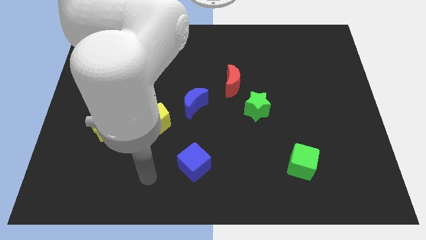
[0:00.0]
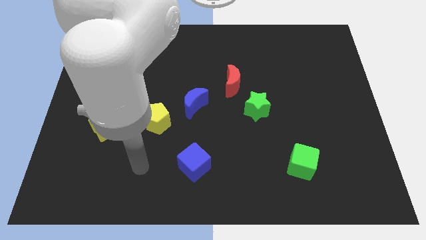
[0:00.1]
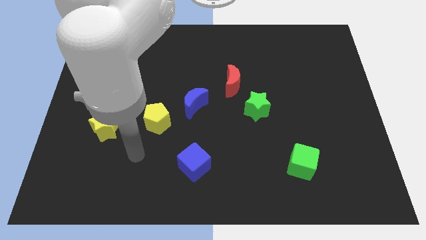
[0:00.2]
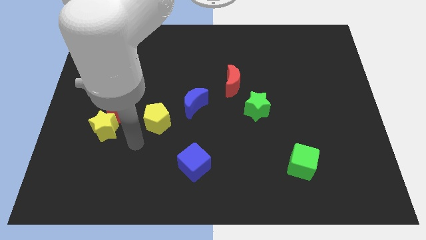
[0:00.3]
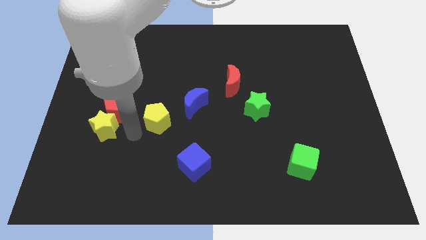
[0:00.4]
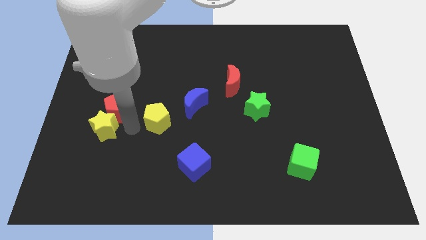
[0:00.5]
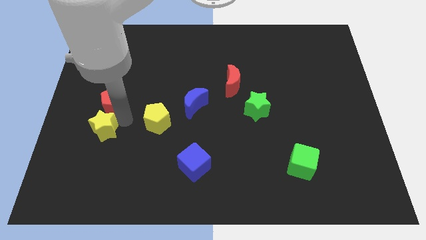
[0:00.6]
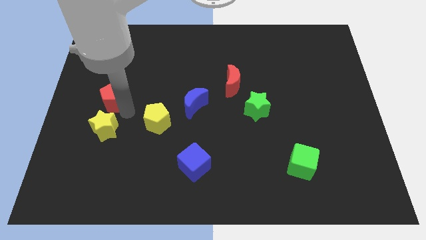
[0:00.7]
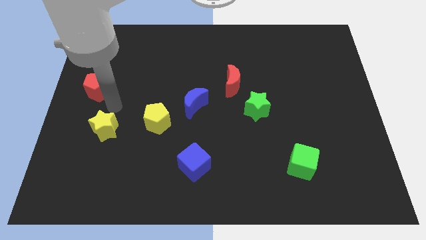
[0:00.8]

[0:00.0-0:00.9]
separate the yellow star from the red pentagon

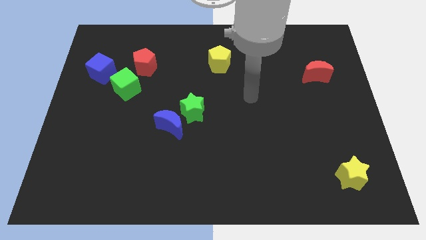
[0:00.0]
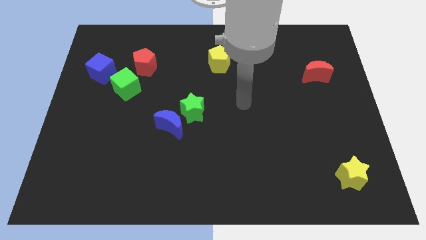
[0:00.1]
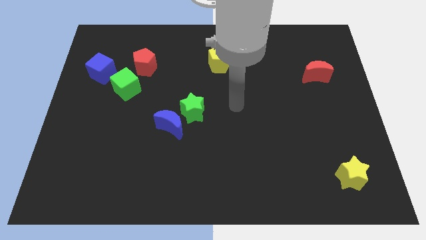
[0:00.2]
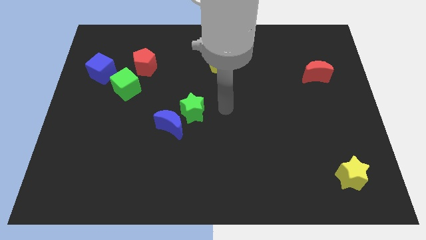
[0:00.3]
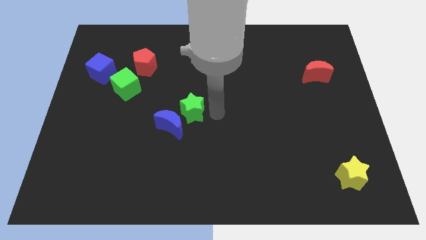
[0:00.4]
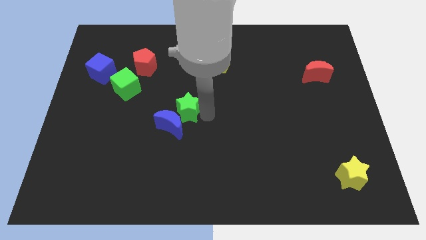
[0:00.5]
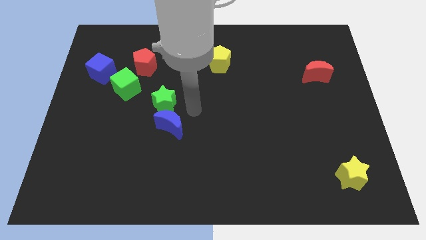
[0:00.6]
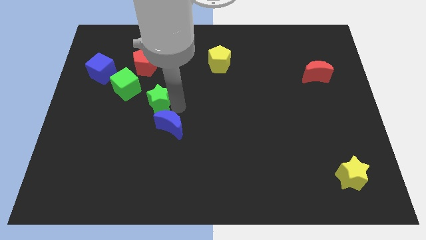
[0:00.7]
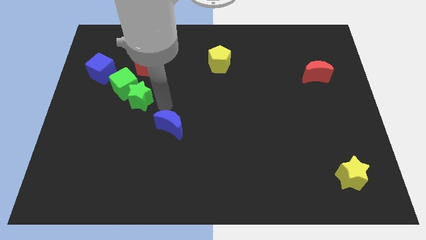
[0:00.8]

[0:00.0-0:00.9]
pull the blue moon apart from the green star

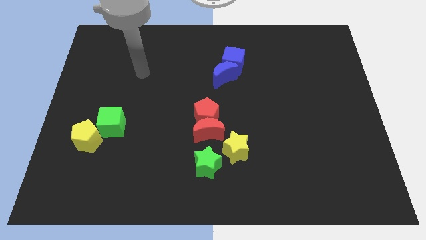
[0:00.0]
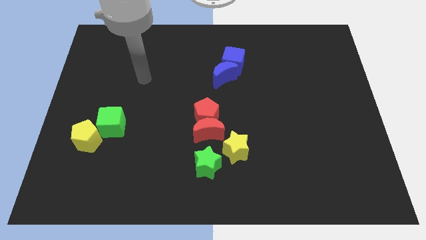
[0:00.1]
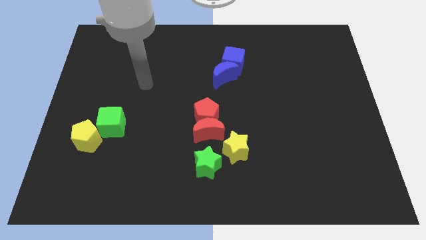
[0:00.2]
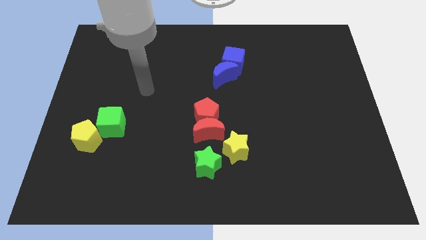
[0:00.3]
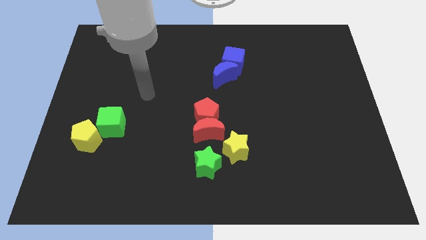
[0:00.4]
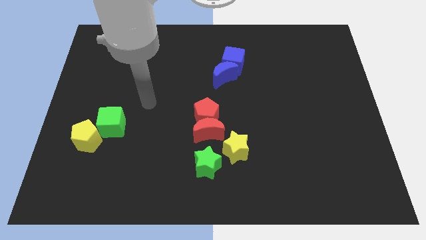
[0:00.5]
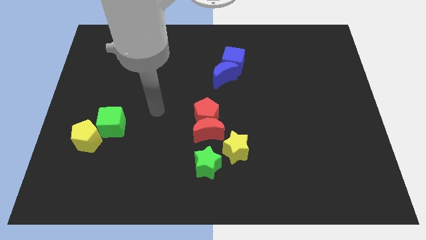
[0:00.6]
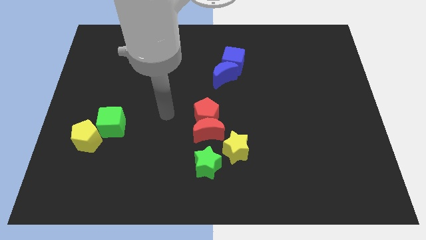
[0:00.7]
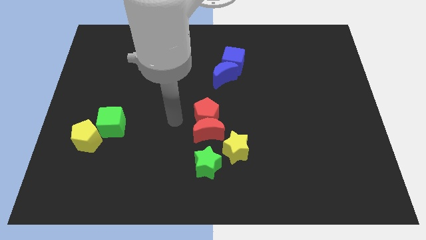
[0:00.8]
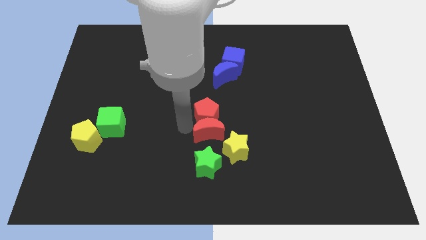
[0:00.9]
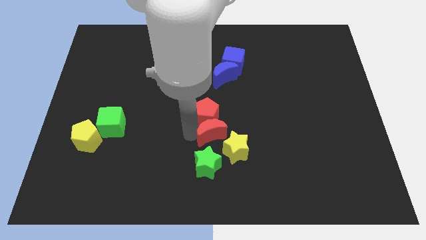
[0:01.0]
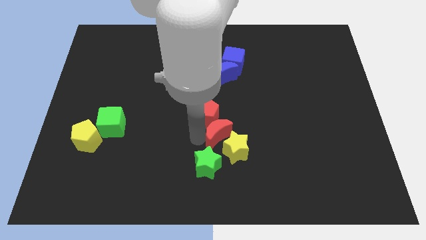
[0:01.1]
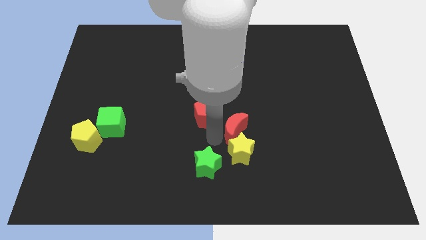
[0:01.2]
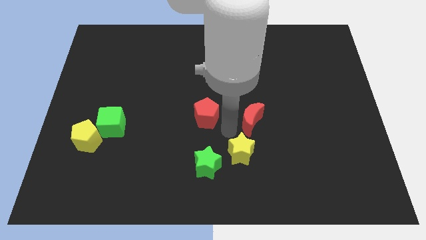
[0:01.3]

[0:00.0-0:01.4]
pull the red pentagon apart from the red moon

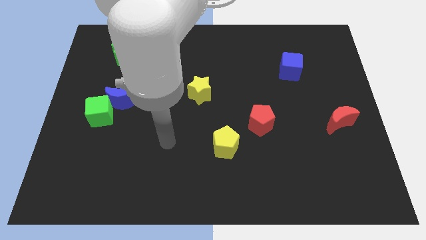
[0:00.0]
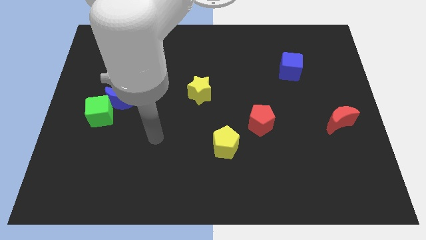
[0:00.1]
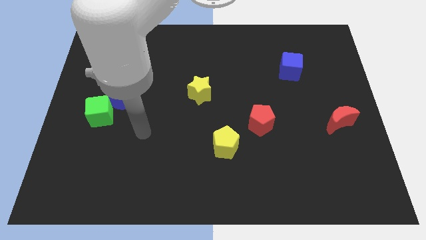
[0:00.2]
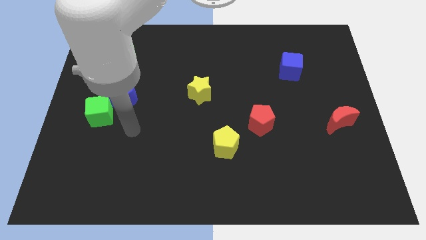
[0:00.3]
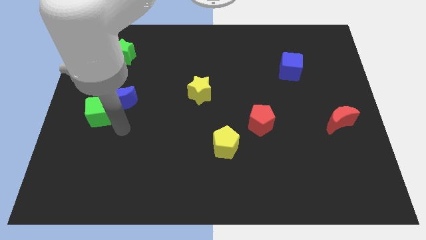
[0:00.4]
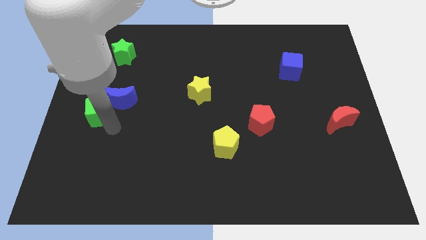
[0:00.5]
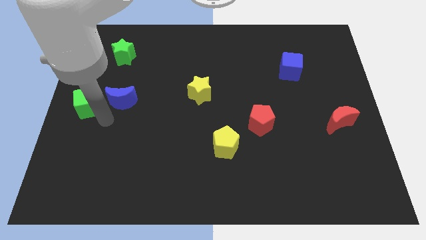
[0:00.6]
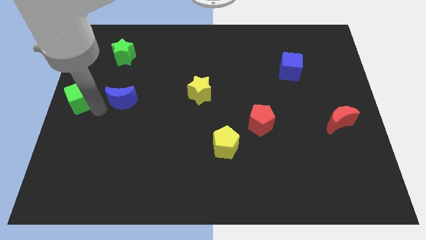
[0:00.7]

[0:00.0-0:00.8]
pull the blue moon apart from the green cube

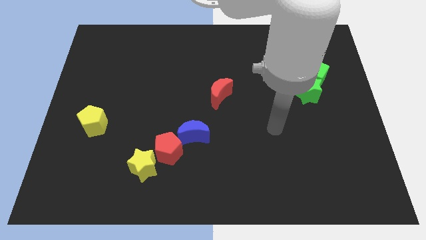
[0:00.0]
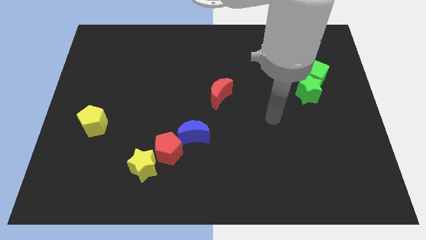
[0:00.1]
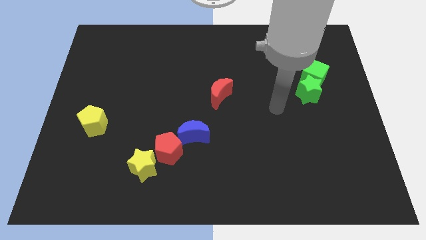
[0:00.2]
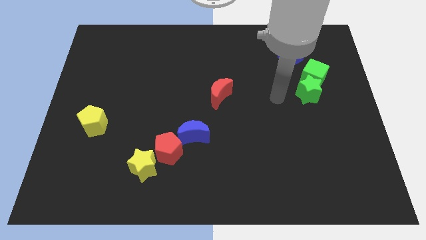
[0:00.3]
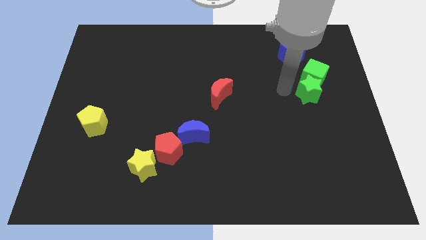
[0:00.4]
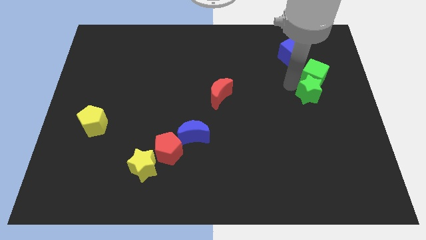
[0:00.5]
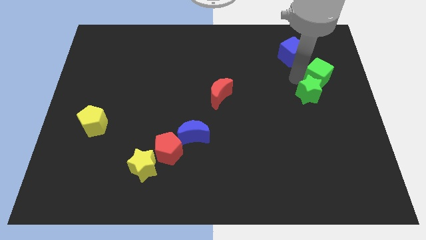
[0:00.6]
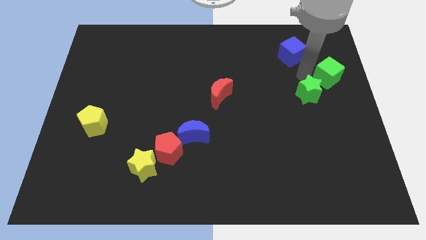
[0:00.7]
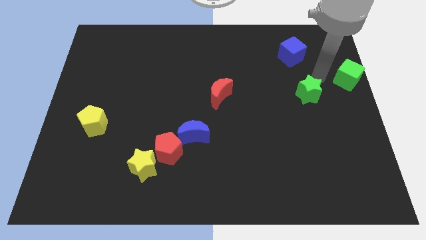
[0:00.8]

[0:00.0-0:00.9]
move the green star away from the green cube

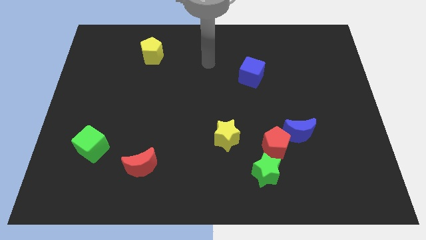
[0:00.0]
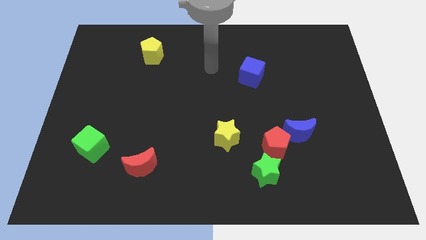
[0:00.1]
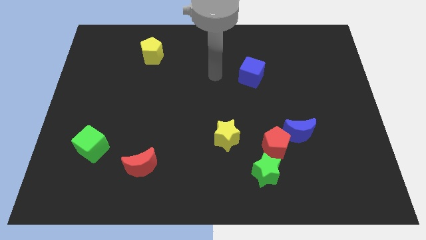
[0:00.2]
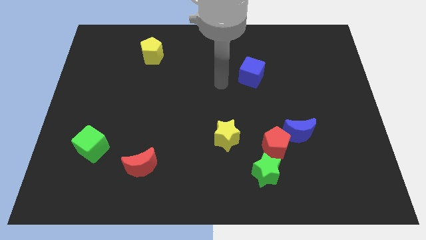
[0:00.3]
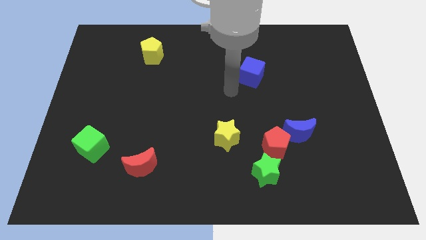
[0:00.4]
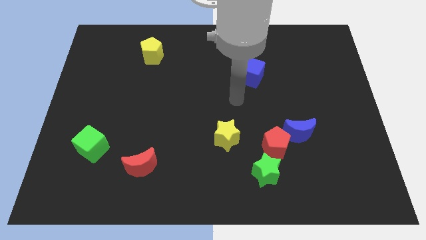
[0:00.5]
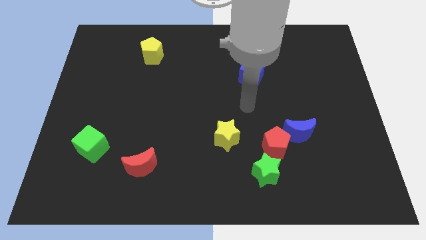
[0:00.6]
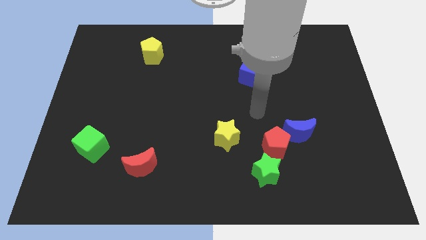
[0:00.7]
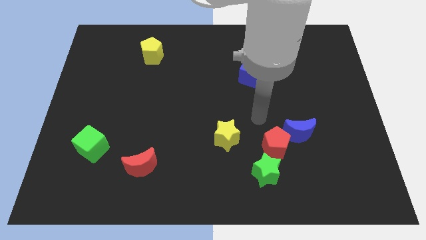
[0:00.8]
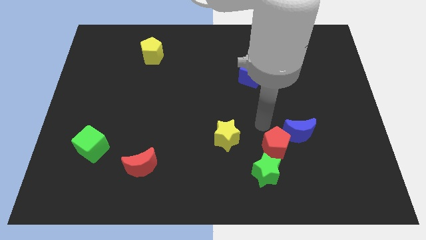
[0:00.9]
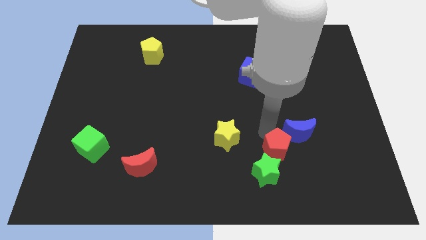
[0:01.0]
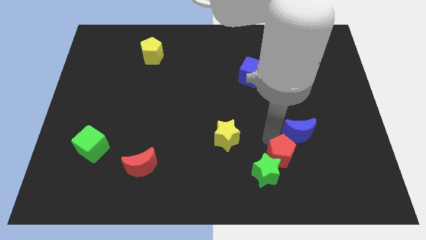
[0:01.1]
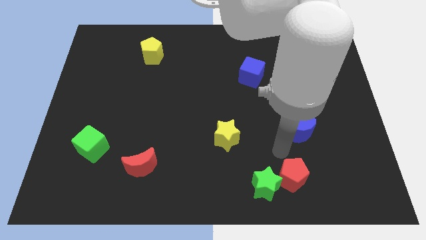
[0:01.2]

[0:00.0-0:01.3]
pull the blue moon apart from the red pentagon

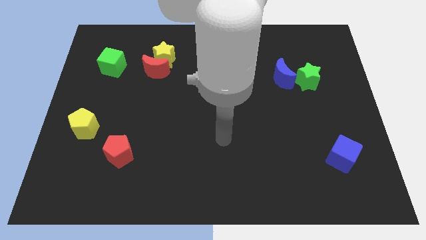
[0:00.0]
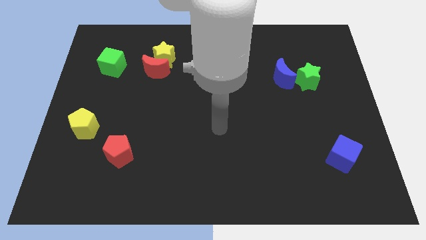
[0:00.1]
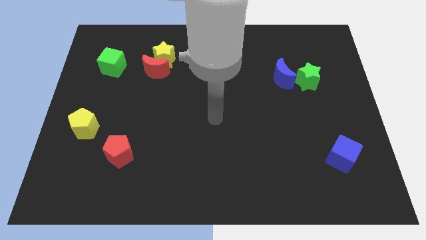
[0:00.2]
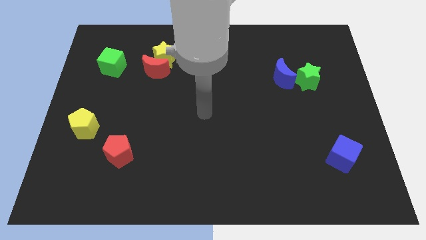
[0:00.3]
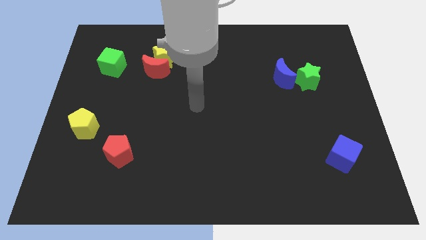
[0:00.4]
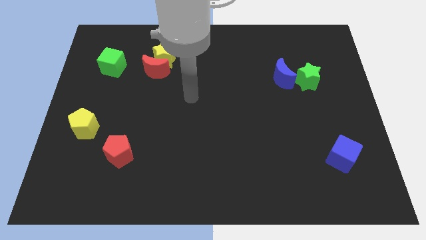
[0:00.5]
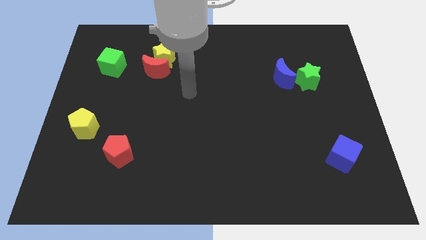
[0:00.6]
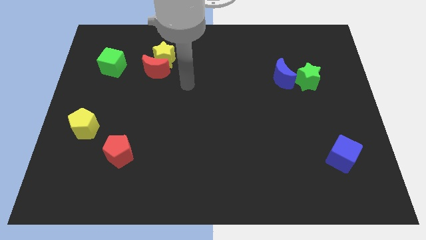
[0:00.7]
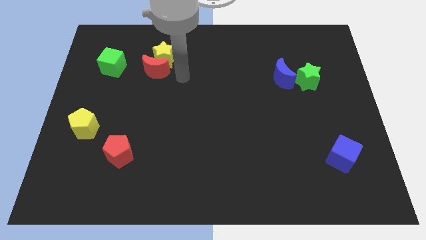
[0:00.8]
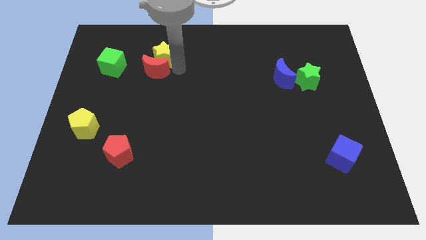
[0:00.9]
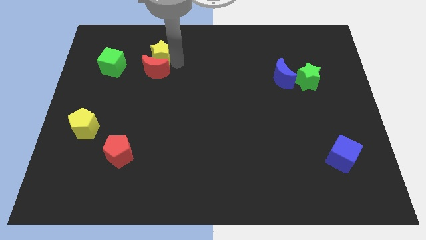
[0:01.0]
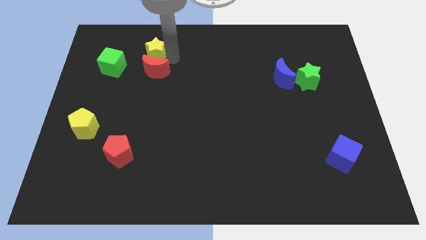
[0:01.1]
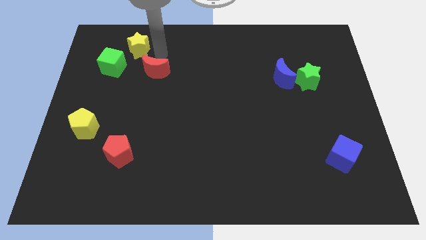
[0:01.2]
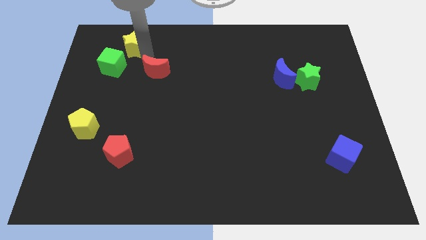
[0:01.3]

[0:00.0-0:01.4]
separate the red moon from the yellow star

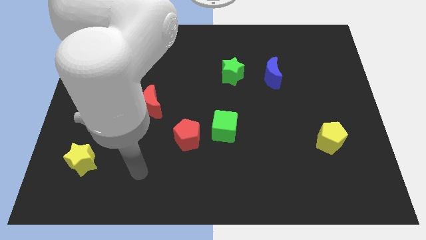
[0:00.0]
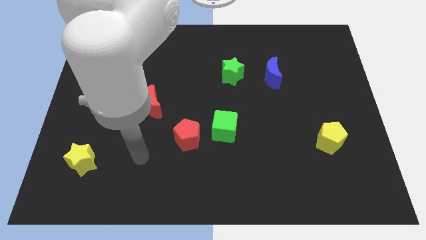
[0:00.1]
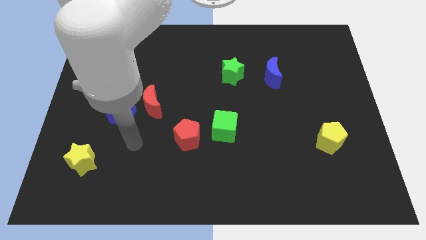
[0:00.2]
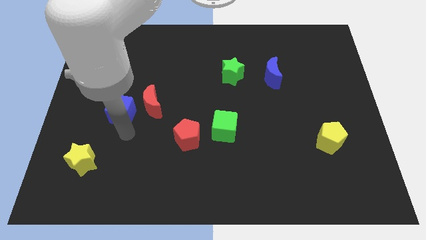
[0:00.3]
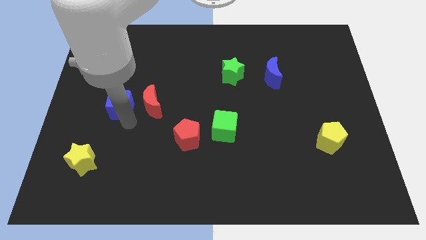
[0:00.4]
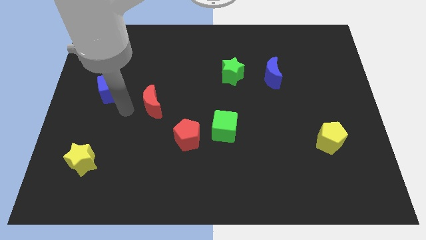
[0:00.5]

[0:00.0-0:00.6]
pull the red moon apart from the blue cube

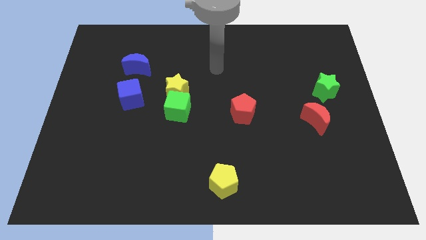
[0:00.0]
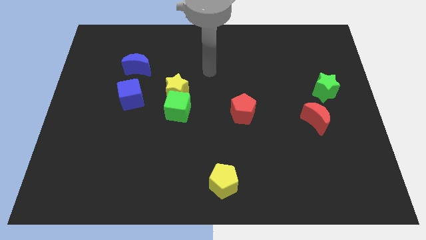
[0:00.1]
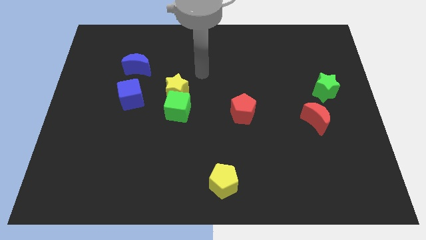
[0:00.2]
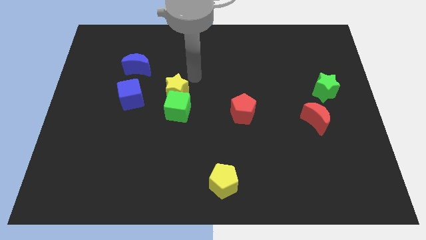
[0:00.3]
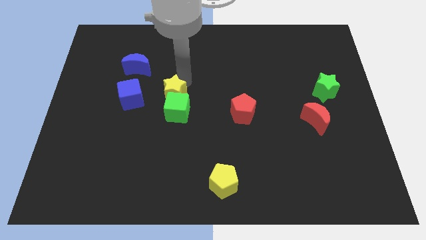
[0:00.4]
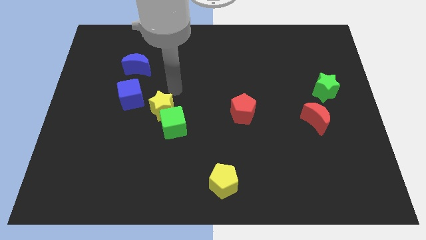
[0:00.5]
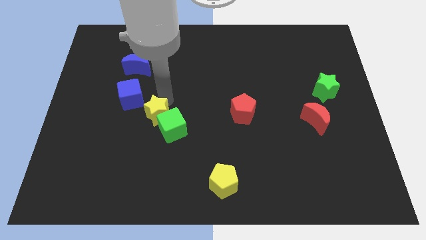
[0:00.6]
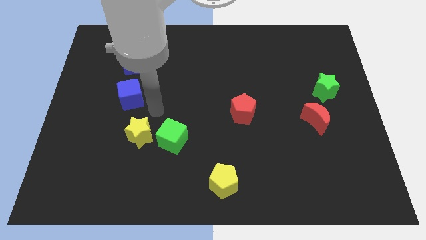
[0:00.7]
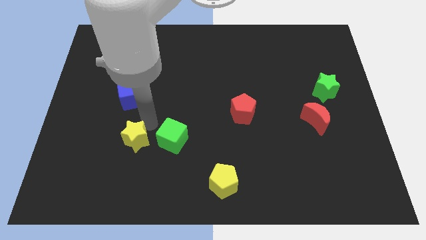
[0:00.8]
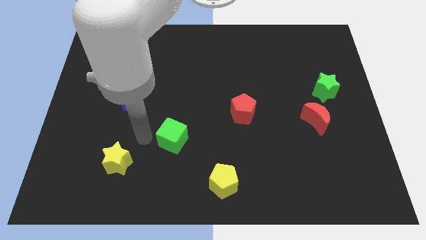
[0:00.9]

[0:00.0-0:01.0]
separate the green cube from the yellow star

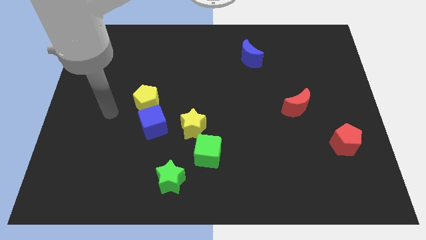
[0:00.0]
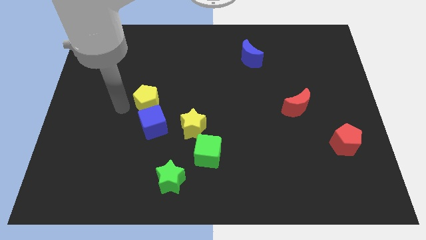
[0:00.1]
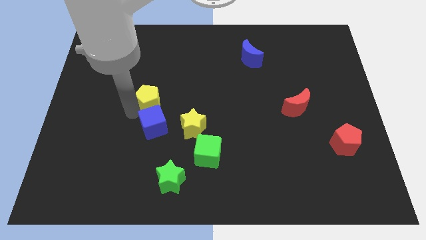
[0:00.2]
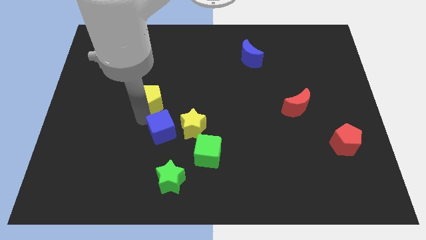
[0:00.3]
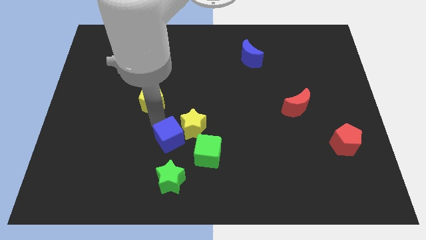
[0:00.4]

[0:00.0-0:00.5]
move the yellow pentagon away from the blue cube
